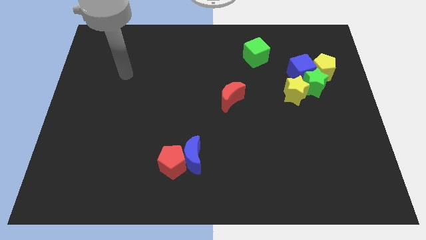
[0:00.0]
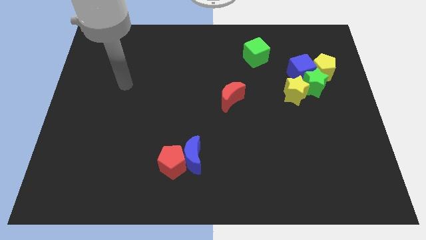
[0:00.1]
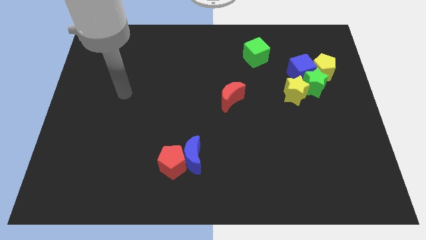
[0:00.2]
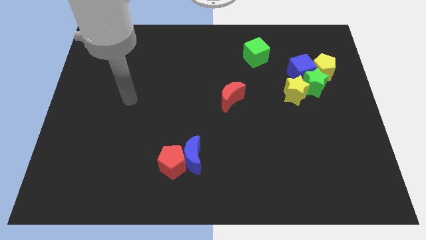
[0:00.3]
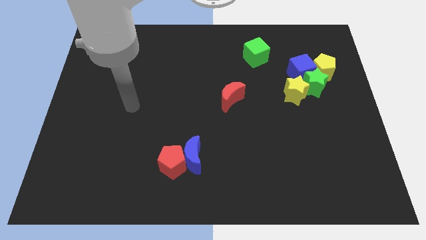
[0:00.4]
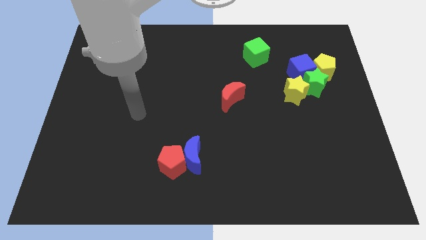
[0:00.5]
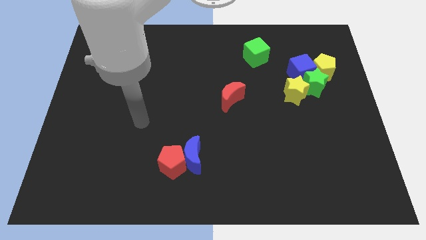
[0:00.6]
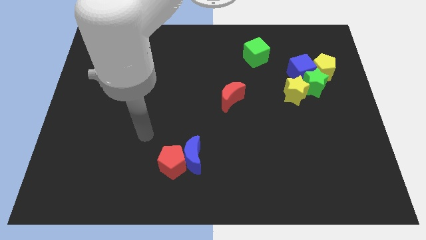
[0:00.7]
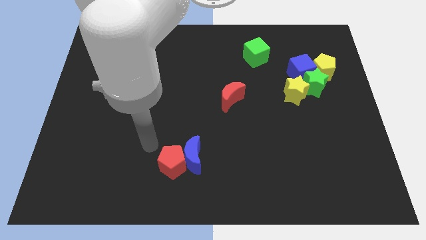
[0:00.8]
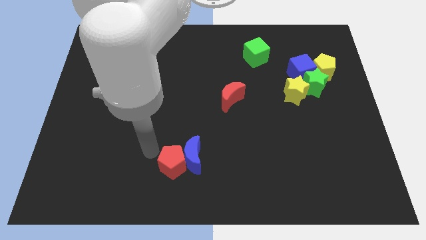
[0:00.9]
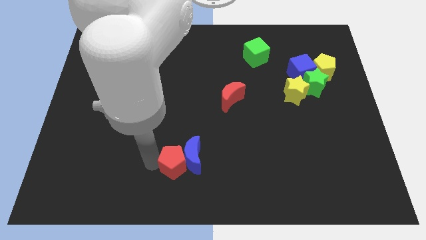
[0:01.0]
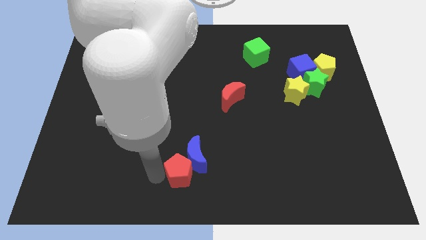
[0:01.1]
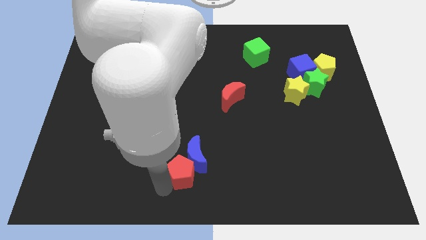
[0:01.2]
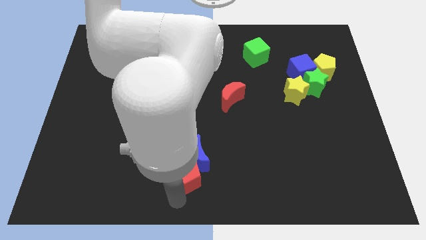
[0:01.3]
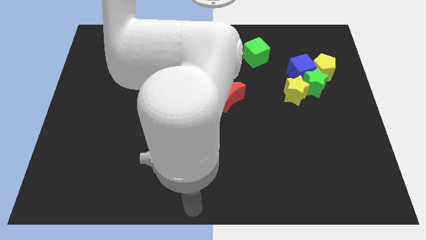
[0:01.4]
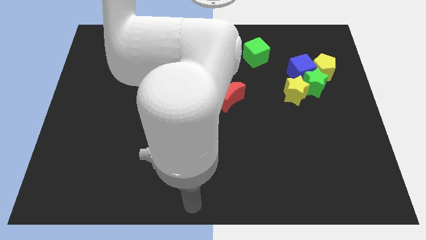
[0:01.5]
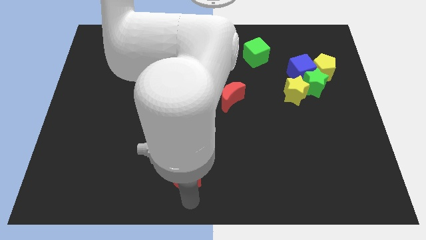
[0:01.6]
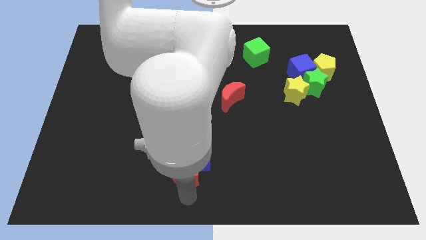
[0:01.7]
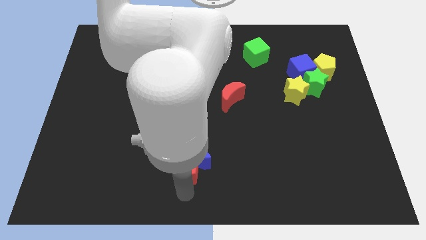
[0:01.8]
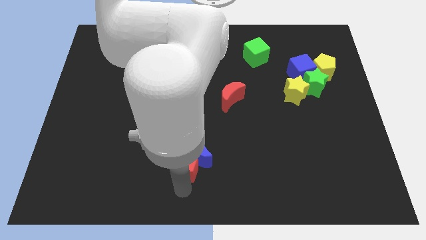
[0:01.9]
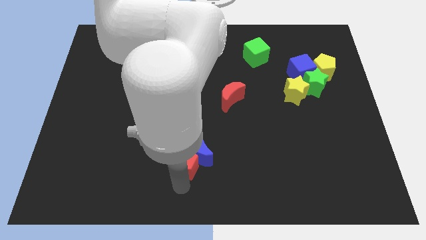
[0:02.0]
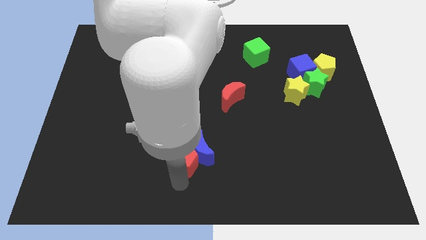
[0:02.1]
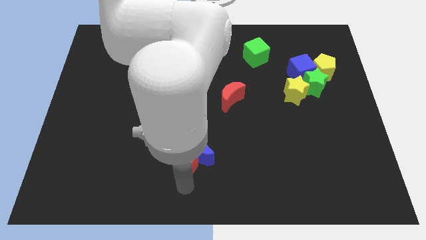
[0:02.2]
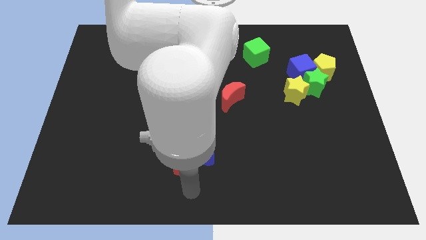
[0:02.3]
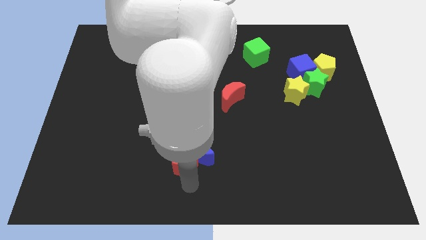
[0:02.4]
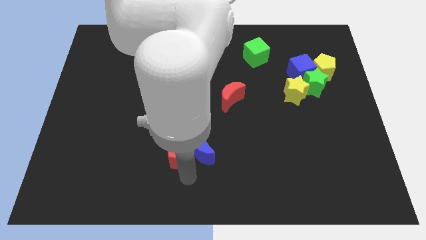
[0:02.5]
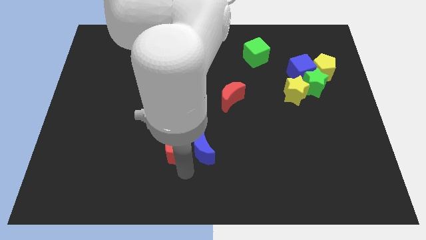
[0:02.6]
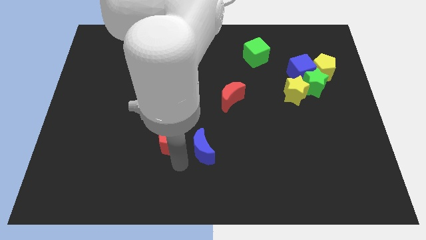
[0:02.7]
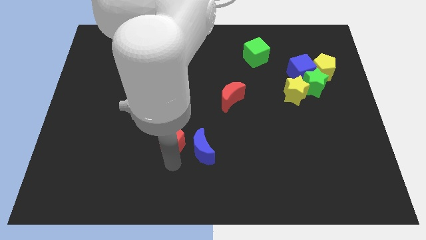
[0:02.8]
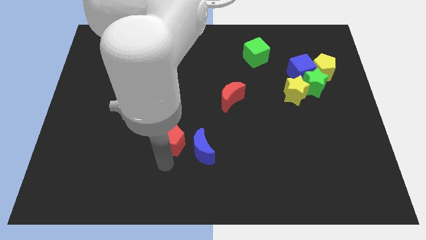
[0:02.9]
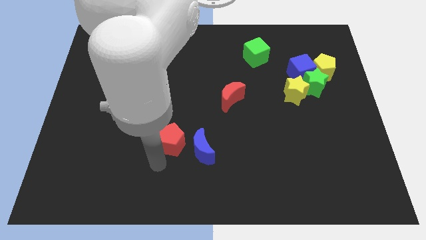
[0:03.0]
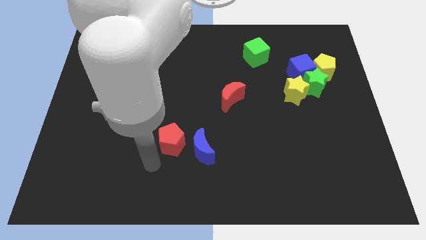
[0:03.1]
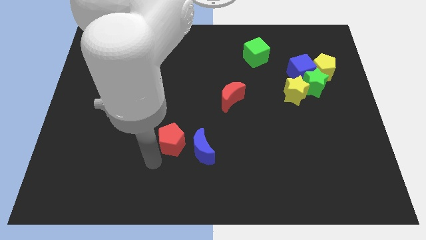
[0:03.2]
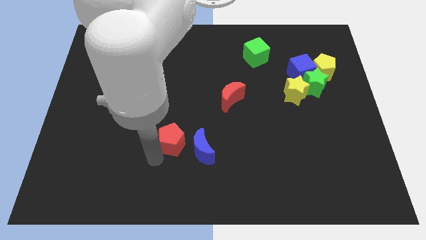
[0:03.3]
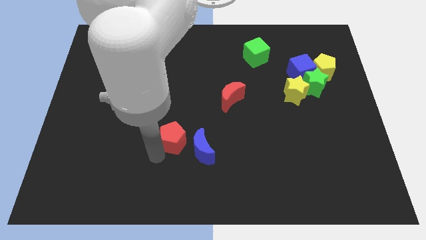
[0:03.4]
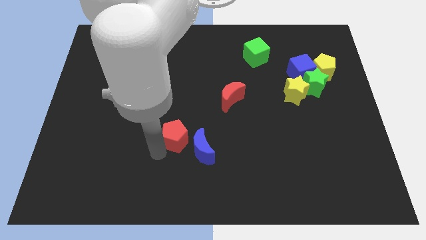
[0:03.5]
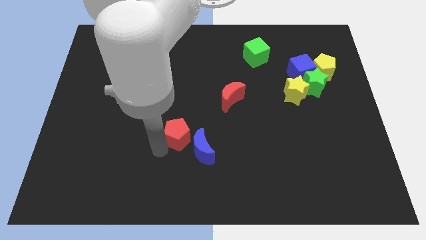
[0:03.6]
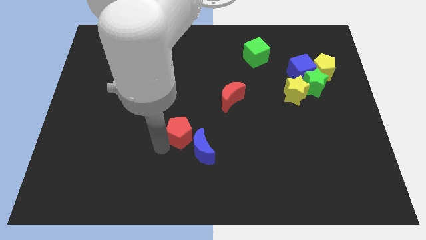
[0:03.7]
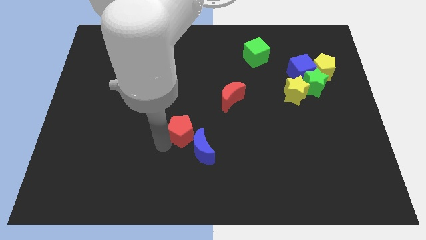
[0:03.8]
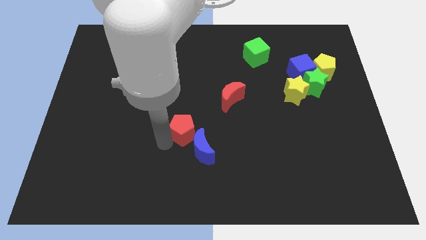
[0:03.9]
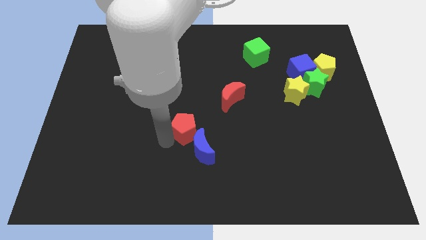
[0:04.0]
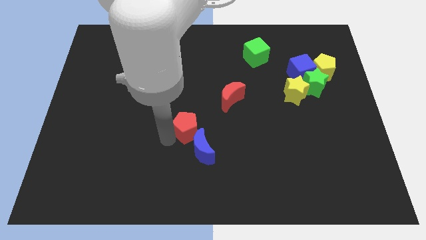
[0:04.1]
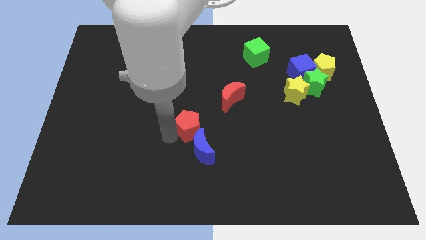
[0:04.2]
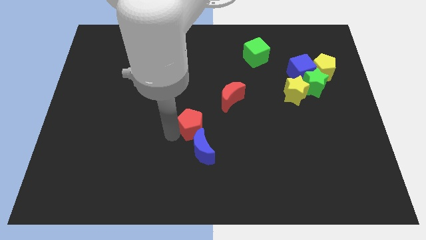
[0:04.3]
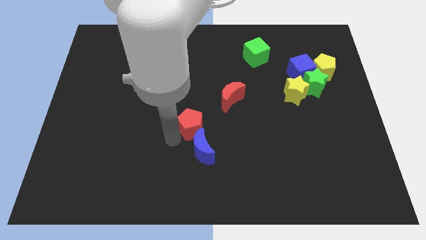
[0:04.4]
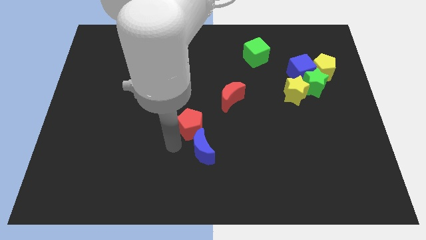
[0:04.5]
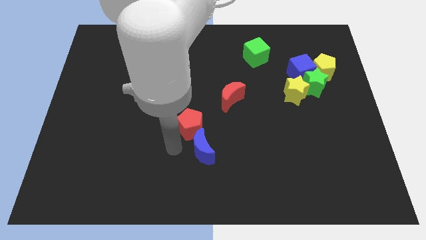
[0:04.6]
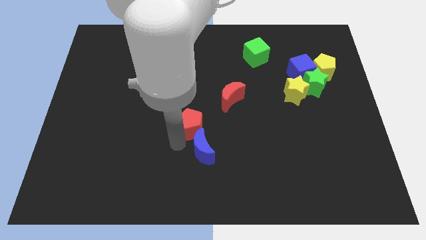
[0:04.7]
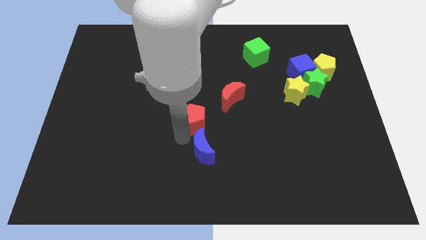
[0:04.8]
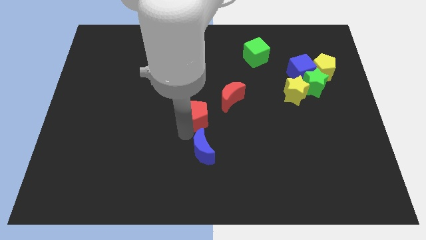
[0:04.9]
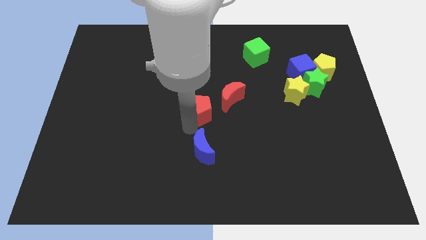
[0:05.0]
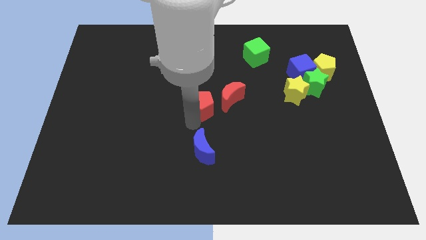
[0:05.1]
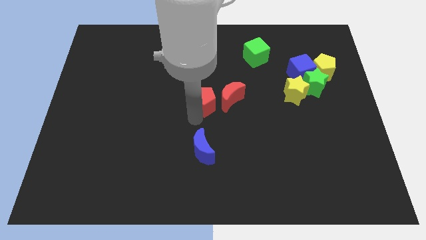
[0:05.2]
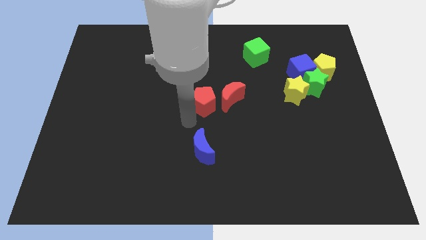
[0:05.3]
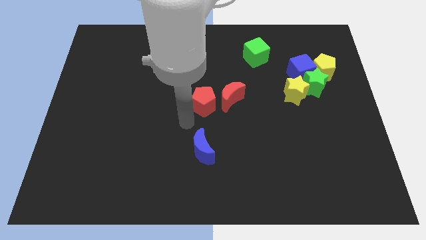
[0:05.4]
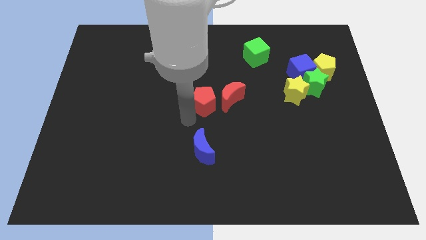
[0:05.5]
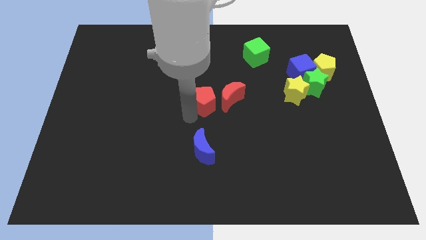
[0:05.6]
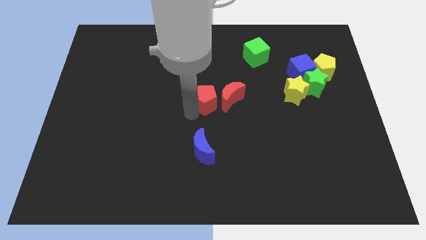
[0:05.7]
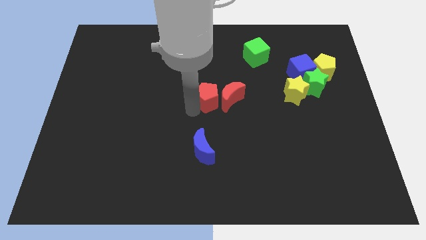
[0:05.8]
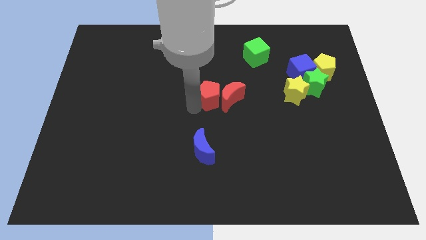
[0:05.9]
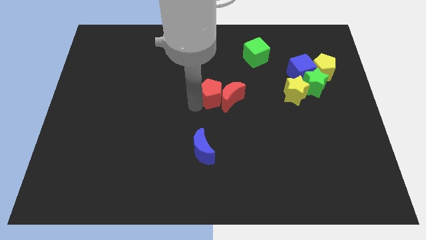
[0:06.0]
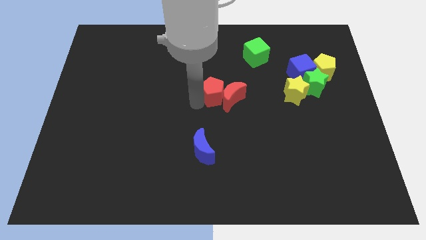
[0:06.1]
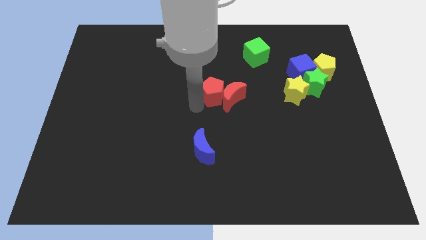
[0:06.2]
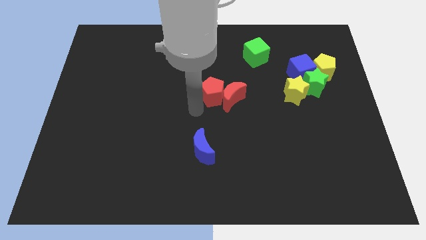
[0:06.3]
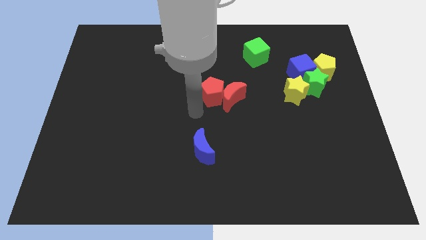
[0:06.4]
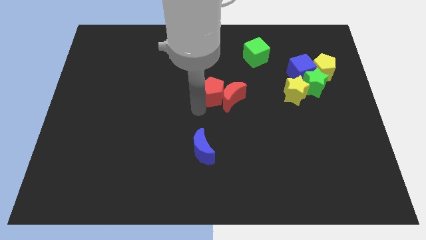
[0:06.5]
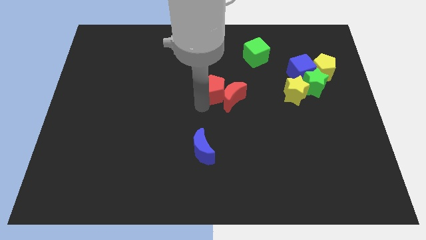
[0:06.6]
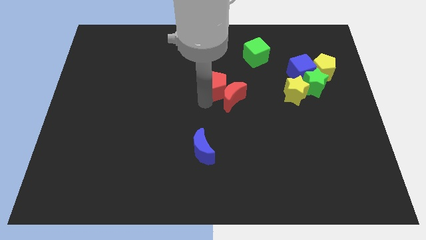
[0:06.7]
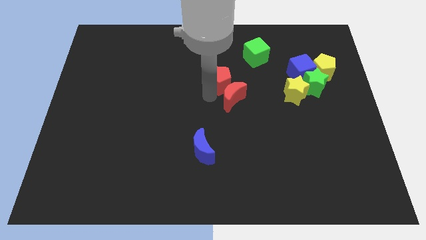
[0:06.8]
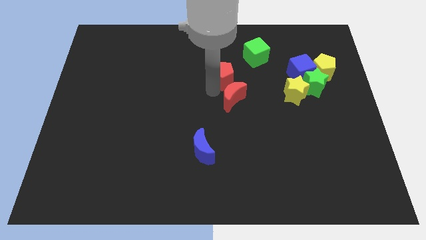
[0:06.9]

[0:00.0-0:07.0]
put the red pentagon to the bottom left of the green cube

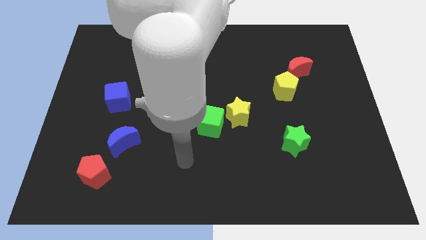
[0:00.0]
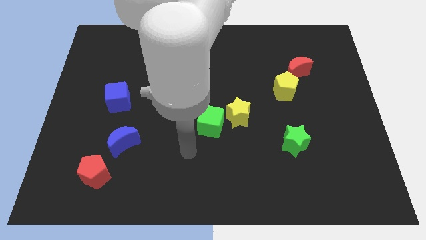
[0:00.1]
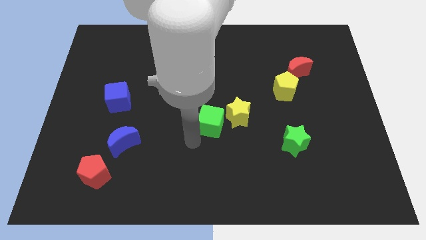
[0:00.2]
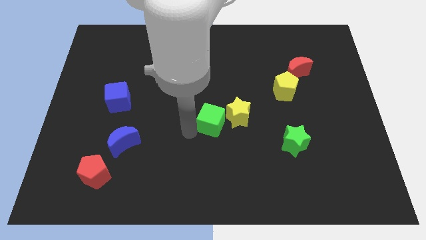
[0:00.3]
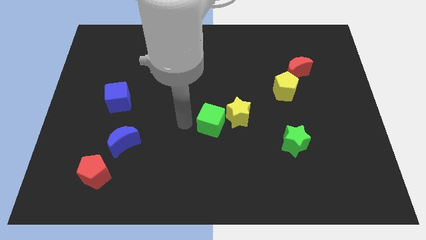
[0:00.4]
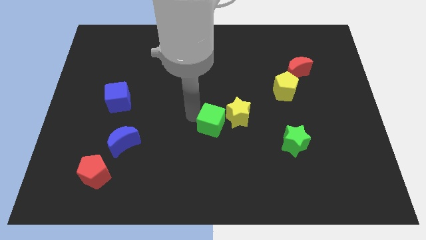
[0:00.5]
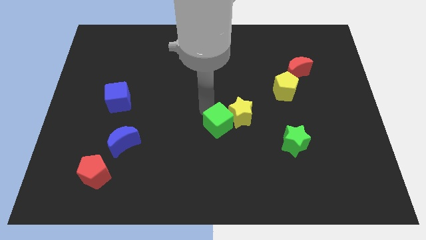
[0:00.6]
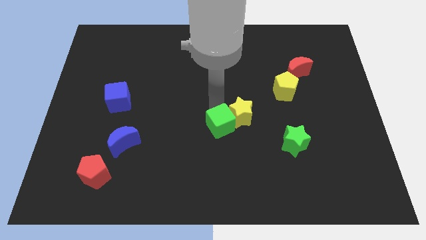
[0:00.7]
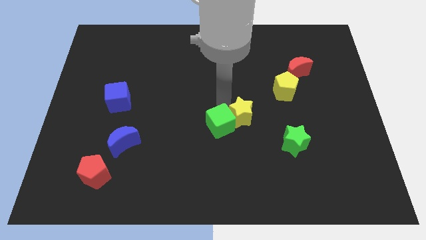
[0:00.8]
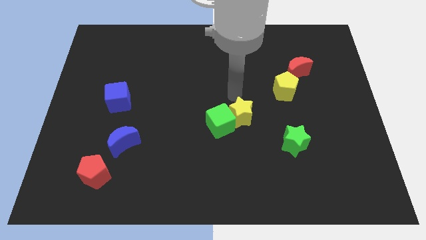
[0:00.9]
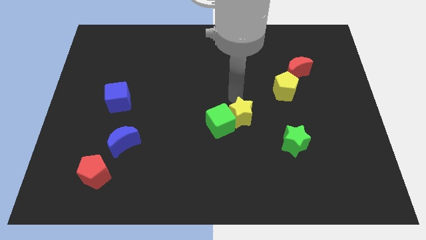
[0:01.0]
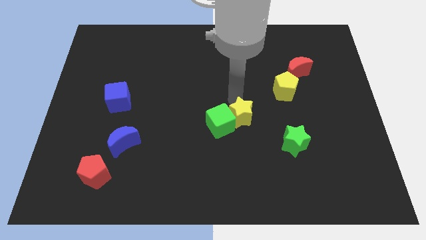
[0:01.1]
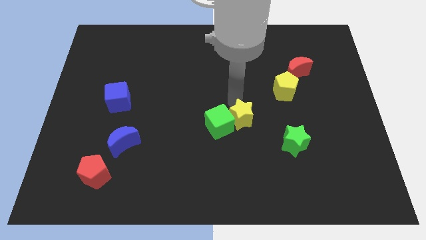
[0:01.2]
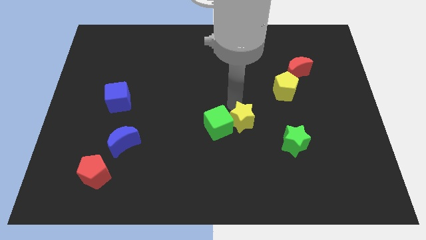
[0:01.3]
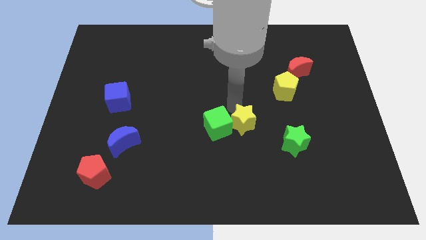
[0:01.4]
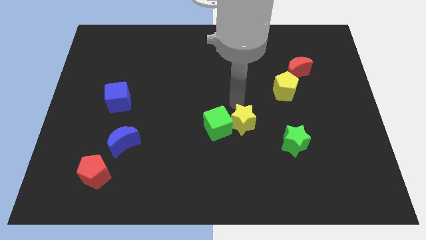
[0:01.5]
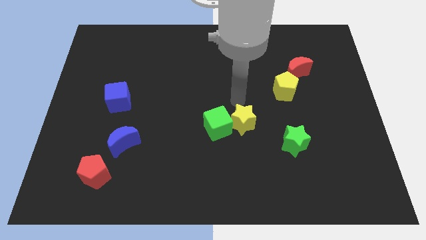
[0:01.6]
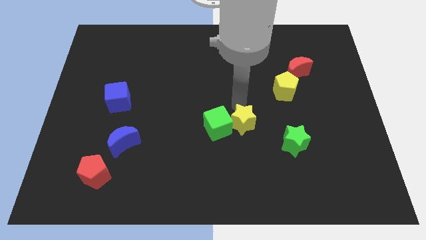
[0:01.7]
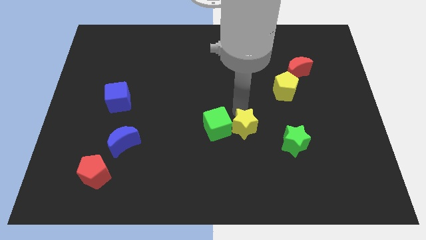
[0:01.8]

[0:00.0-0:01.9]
put the yellow star to the left of the green star
